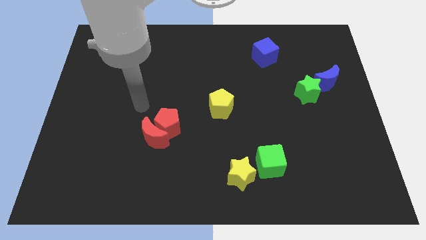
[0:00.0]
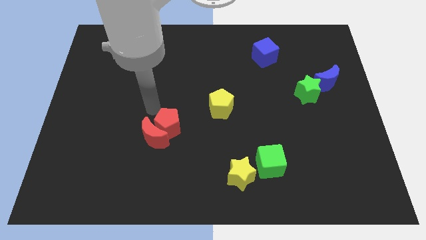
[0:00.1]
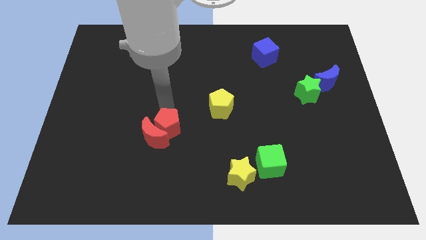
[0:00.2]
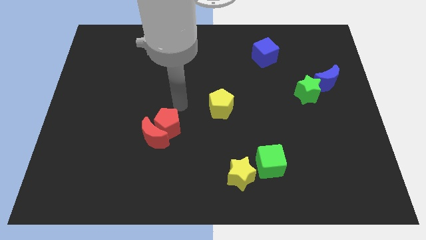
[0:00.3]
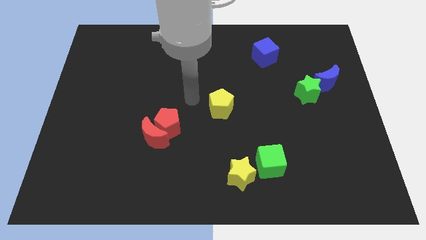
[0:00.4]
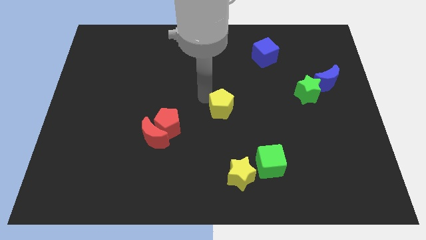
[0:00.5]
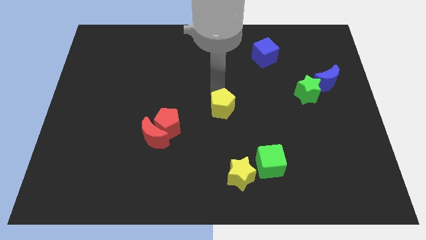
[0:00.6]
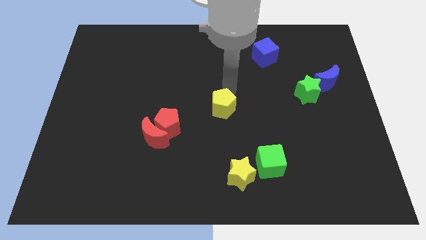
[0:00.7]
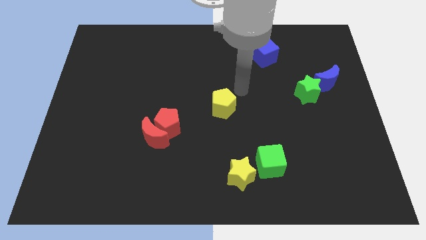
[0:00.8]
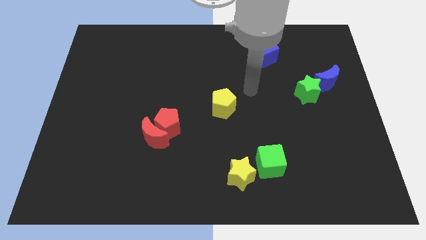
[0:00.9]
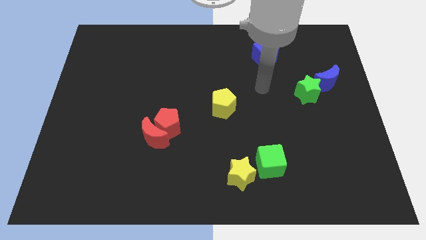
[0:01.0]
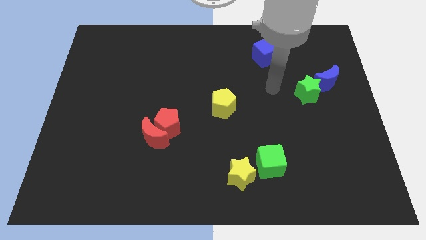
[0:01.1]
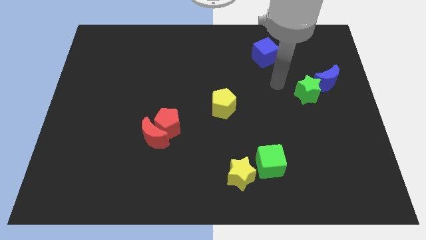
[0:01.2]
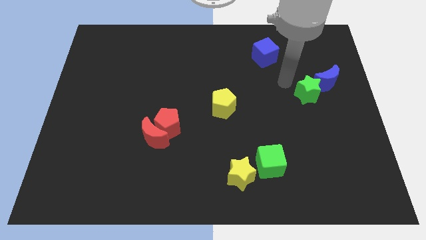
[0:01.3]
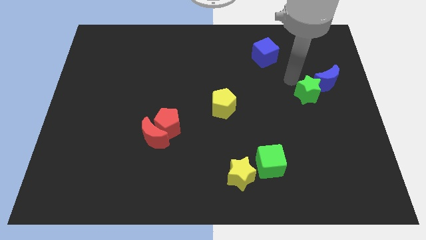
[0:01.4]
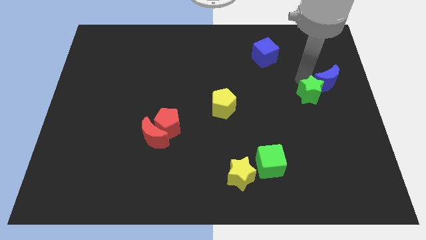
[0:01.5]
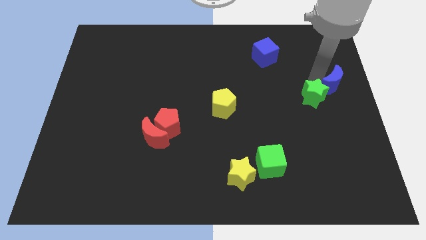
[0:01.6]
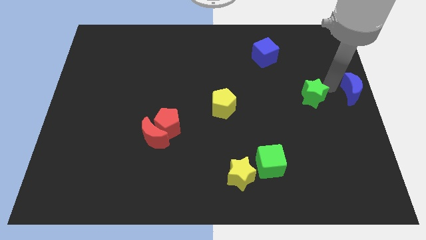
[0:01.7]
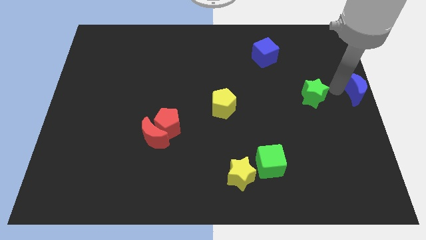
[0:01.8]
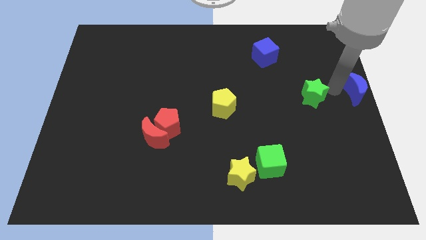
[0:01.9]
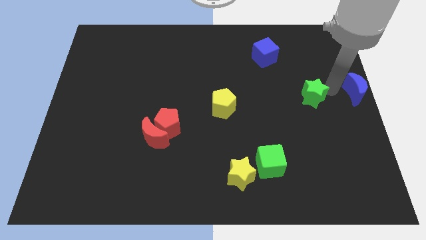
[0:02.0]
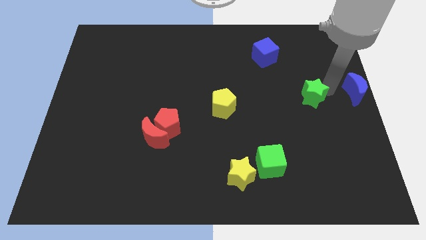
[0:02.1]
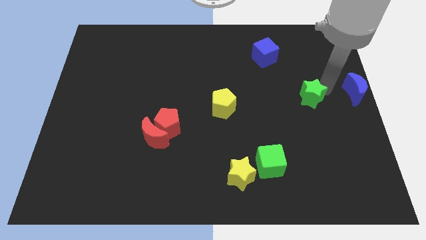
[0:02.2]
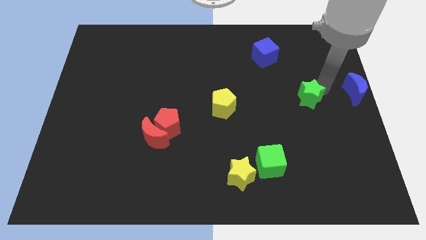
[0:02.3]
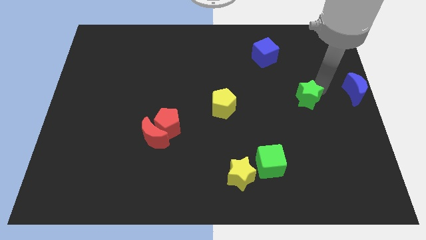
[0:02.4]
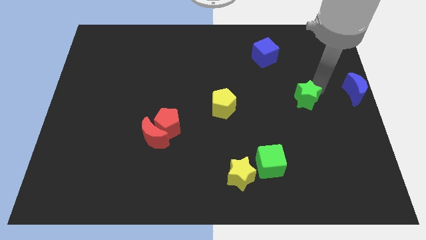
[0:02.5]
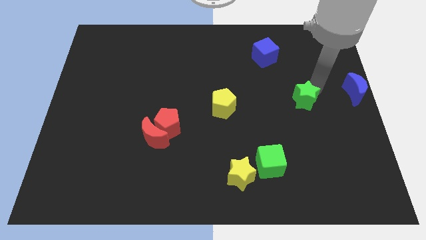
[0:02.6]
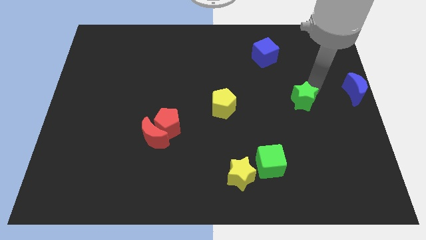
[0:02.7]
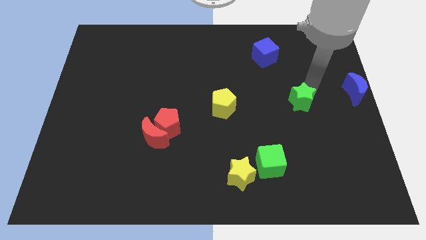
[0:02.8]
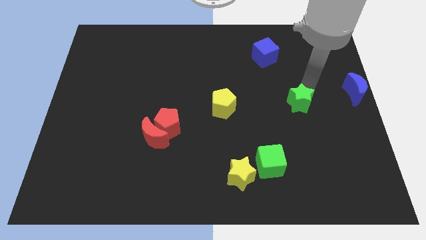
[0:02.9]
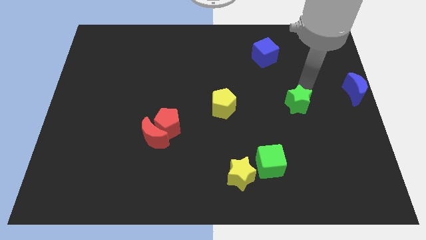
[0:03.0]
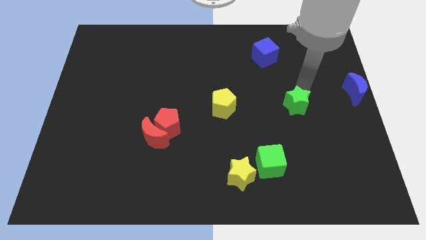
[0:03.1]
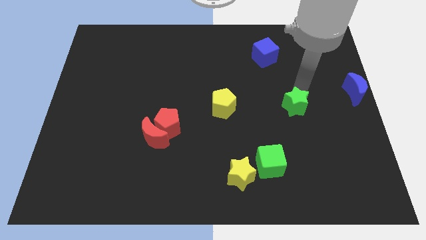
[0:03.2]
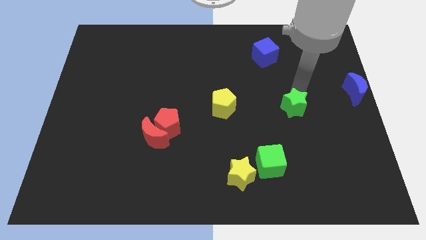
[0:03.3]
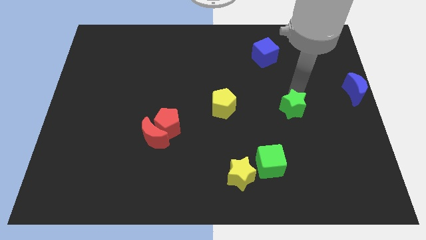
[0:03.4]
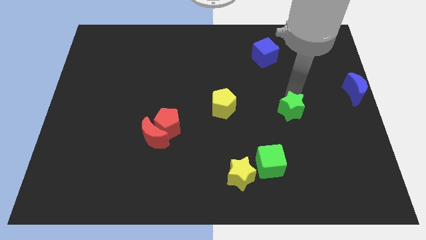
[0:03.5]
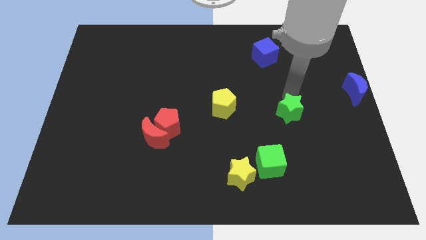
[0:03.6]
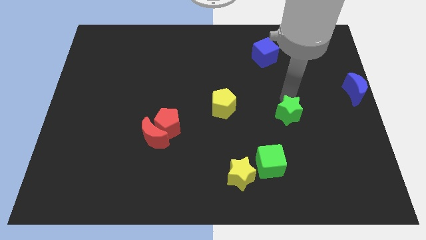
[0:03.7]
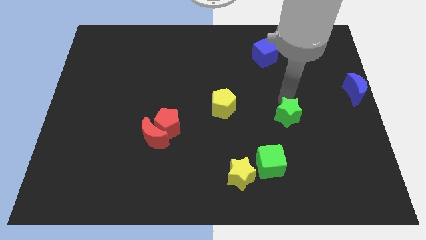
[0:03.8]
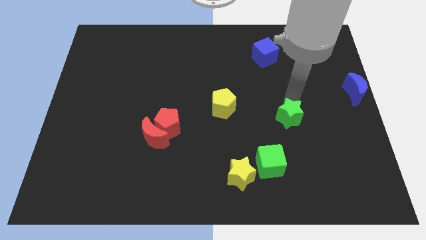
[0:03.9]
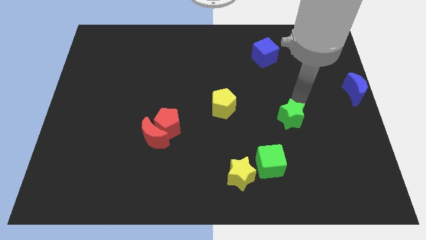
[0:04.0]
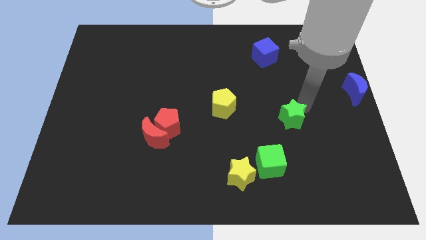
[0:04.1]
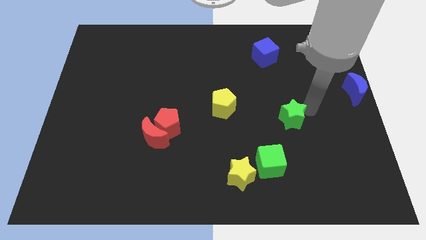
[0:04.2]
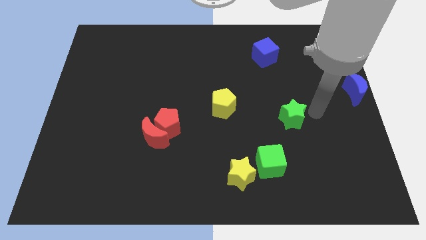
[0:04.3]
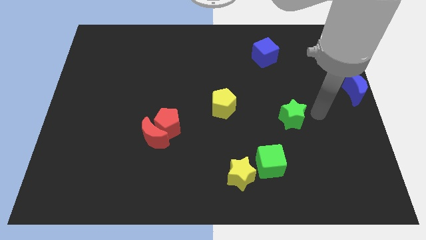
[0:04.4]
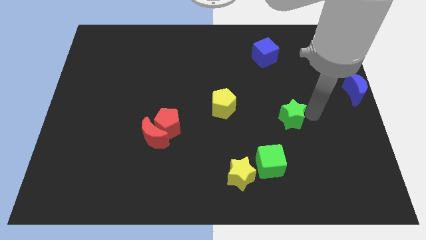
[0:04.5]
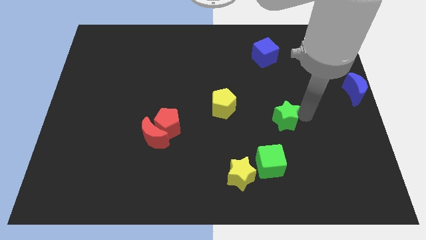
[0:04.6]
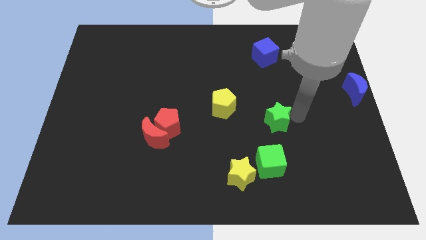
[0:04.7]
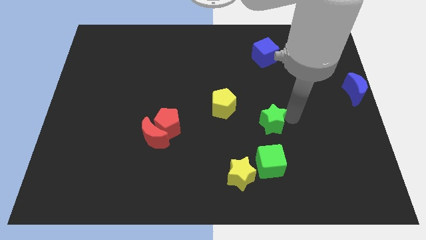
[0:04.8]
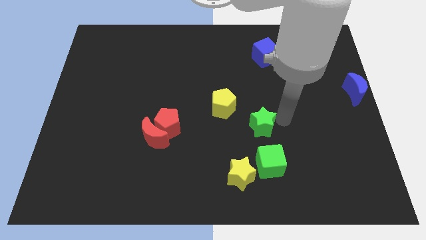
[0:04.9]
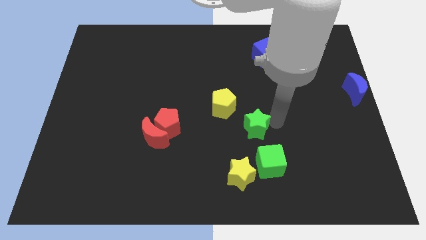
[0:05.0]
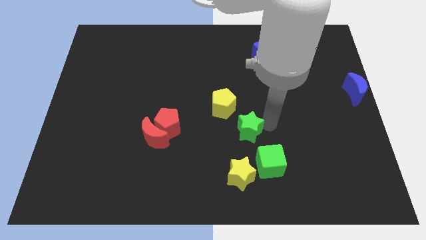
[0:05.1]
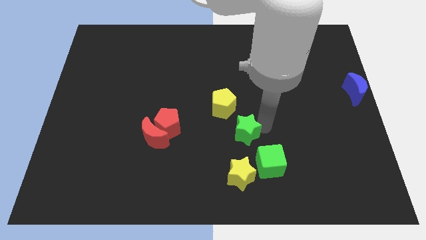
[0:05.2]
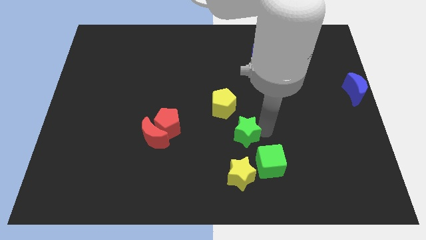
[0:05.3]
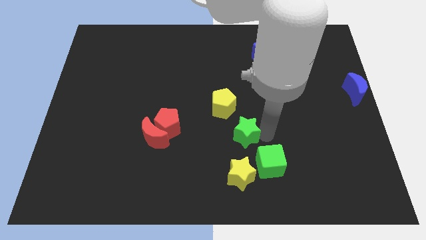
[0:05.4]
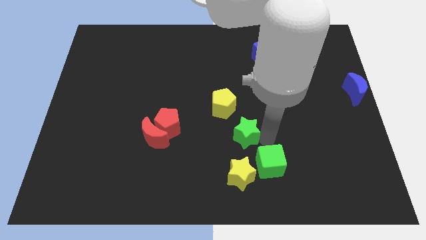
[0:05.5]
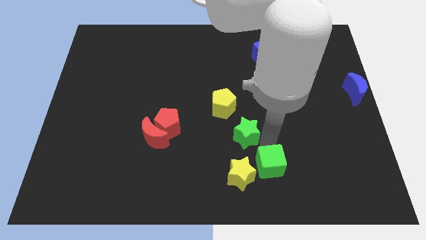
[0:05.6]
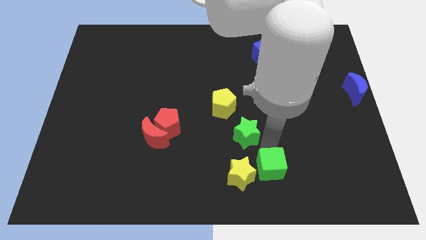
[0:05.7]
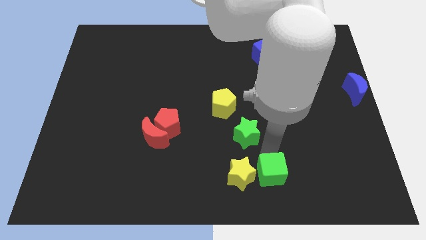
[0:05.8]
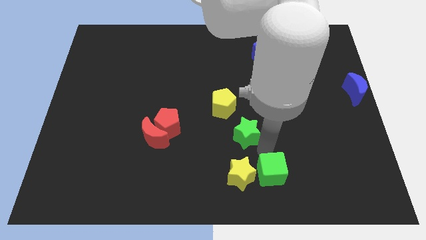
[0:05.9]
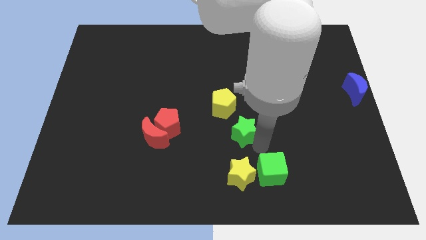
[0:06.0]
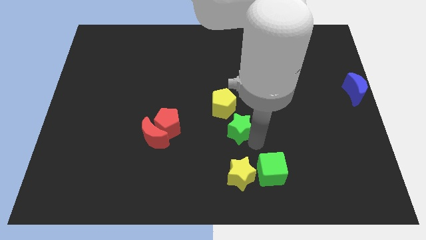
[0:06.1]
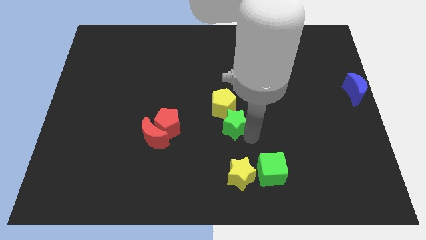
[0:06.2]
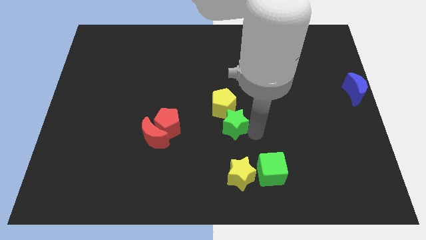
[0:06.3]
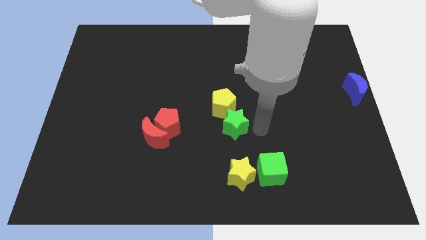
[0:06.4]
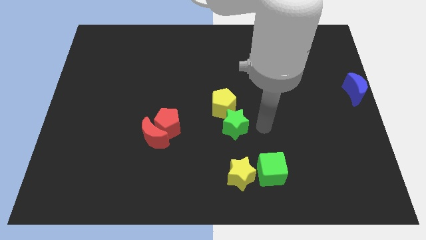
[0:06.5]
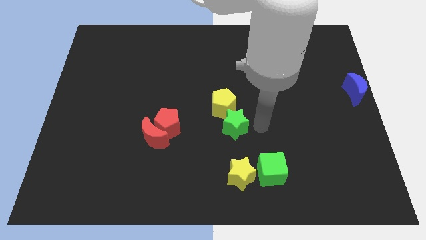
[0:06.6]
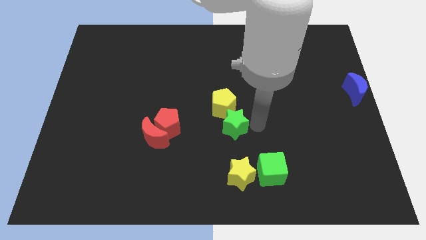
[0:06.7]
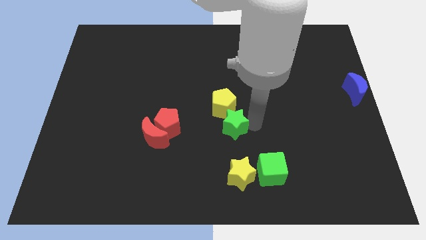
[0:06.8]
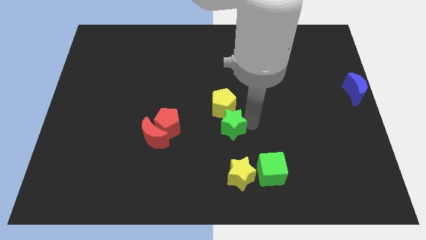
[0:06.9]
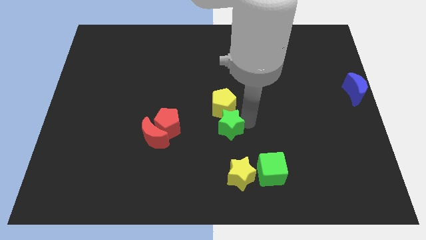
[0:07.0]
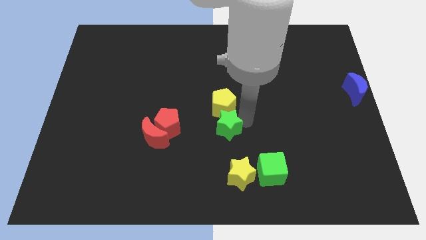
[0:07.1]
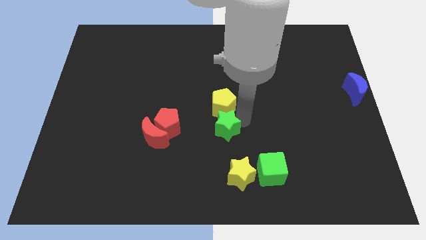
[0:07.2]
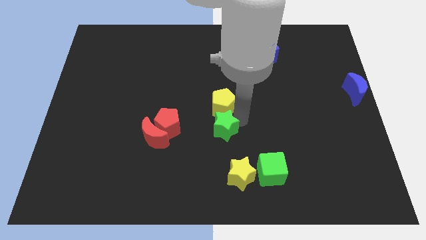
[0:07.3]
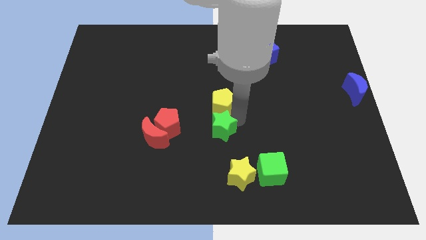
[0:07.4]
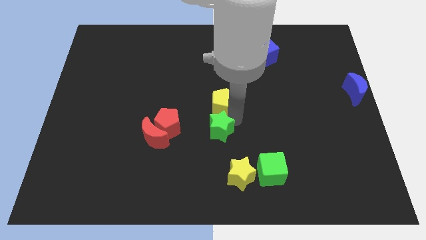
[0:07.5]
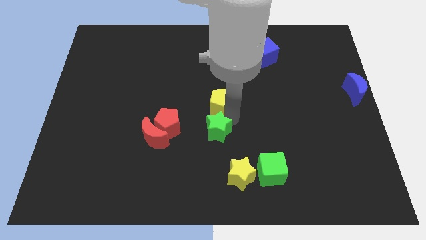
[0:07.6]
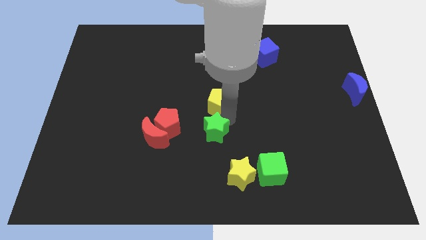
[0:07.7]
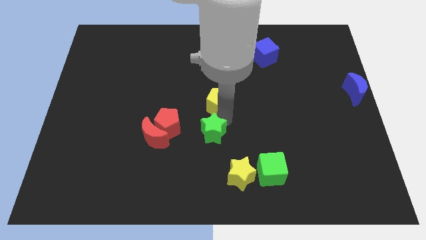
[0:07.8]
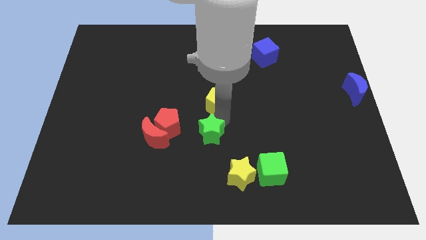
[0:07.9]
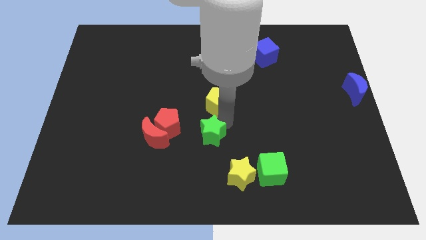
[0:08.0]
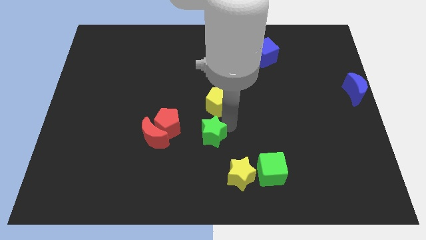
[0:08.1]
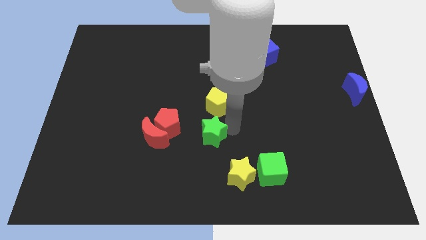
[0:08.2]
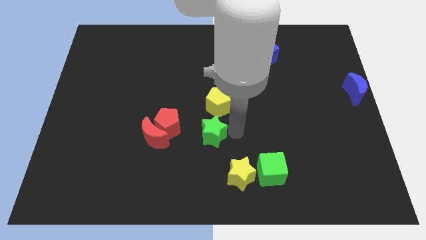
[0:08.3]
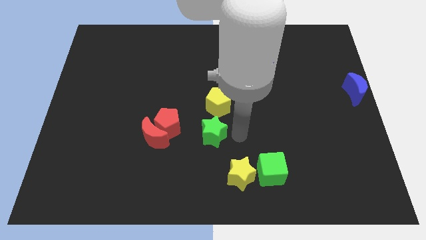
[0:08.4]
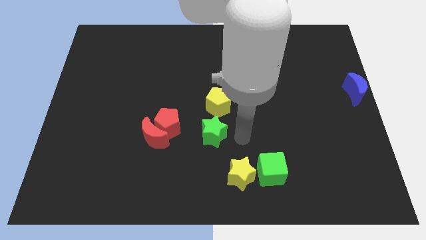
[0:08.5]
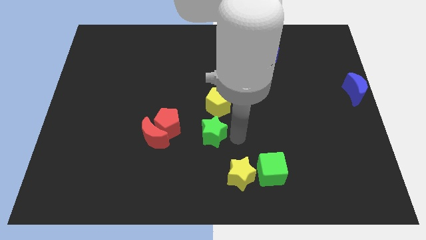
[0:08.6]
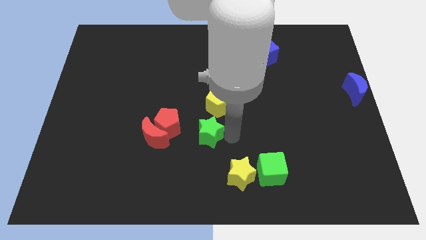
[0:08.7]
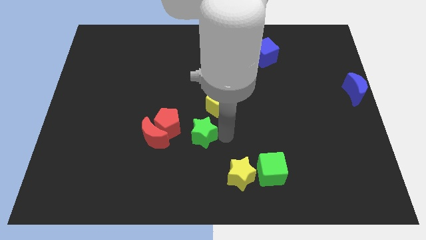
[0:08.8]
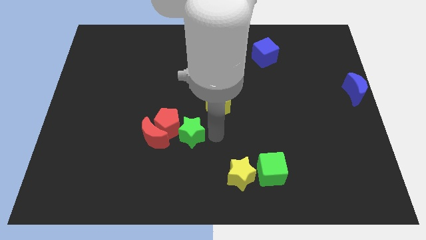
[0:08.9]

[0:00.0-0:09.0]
slide the green star next to the red pentagon
